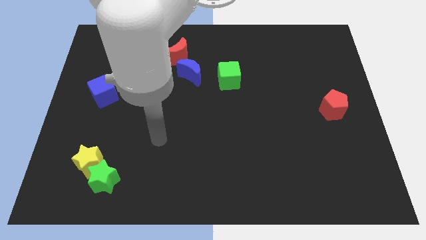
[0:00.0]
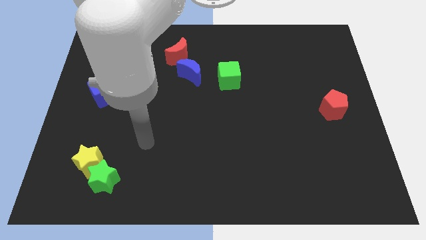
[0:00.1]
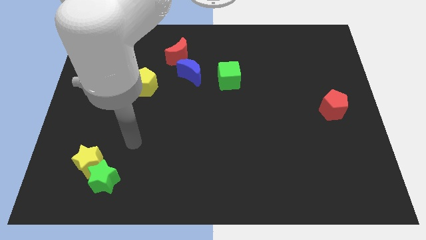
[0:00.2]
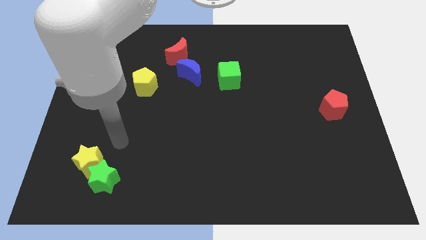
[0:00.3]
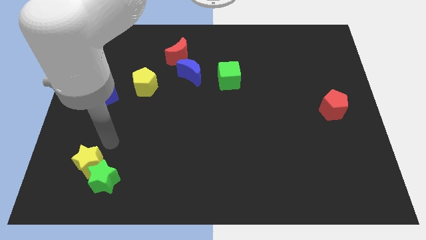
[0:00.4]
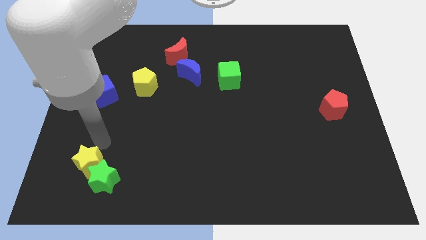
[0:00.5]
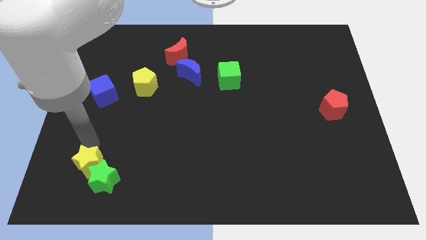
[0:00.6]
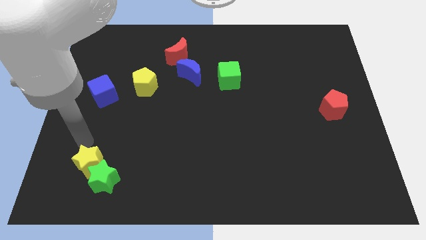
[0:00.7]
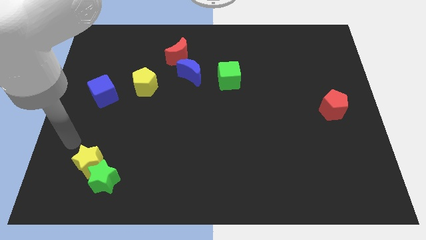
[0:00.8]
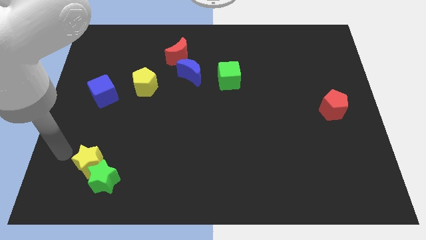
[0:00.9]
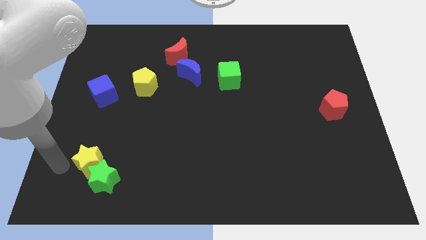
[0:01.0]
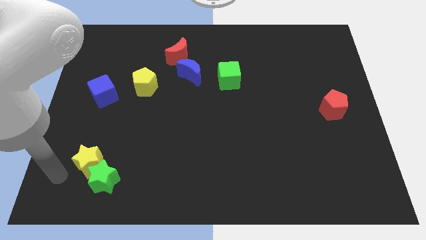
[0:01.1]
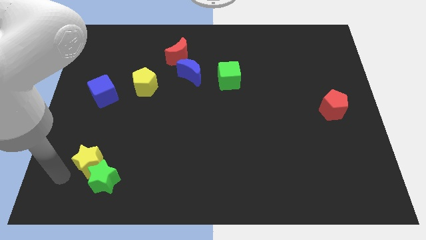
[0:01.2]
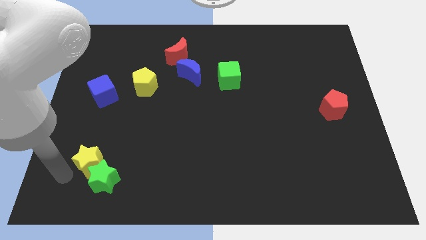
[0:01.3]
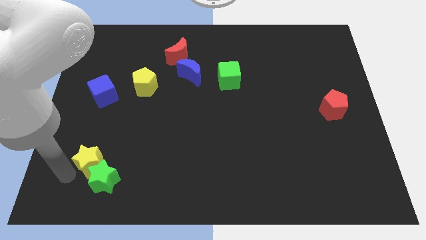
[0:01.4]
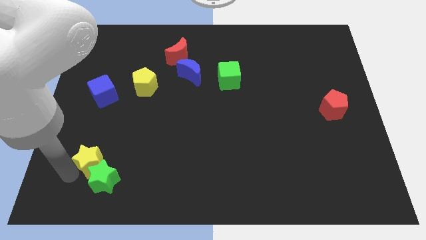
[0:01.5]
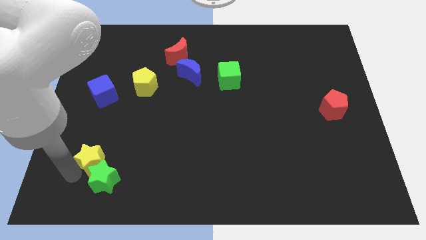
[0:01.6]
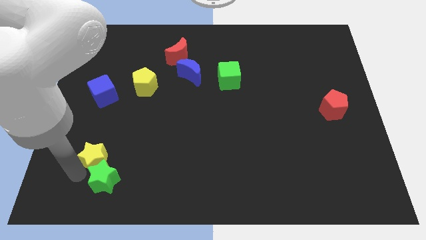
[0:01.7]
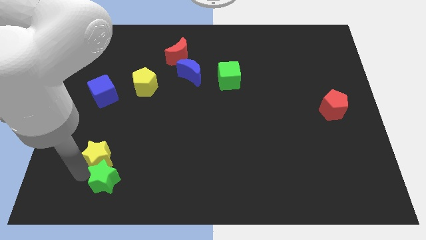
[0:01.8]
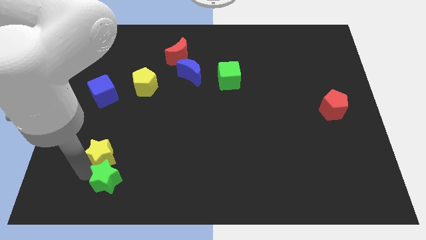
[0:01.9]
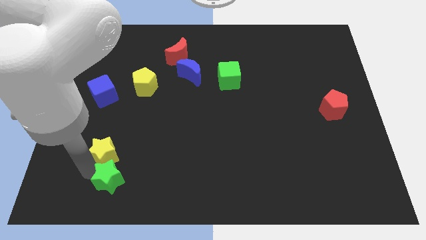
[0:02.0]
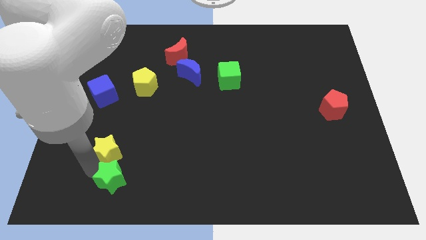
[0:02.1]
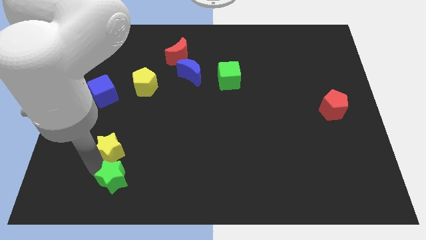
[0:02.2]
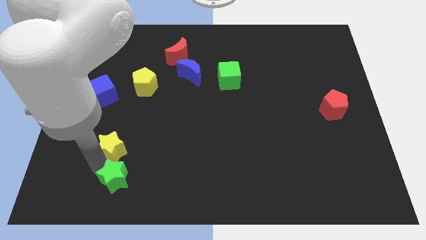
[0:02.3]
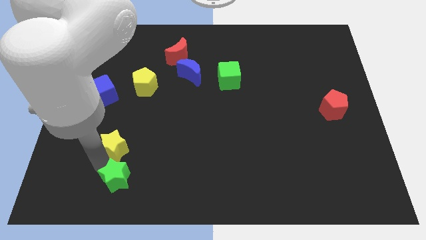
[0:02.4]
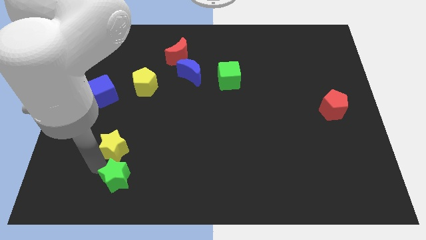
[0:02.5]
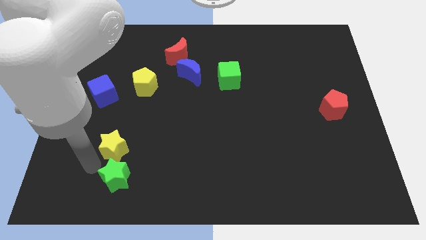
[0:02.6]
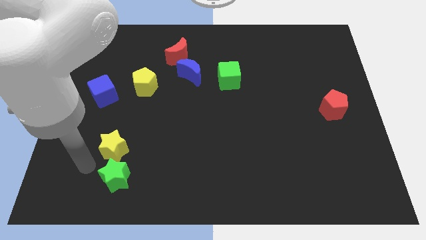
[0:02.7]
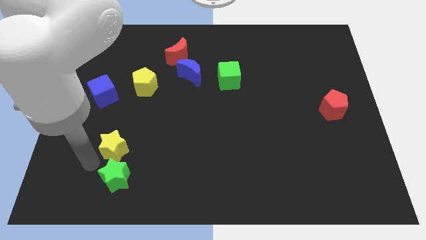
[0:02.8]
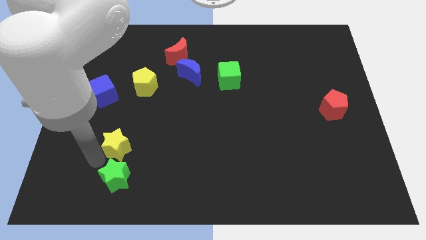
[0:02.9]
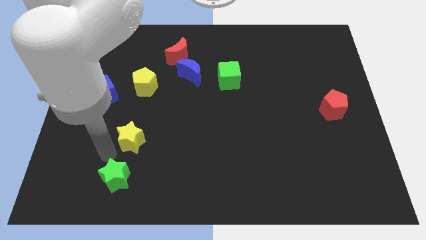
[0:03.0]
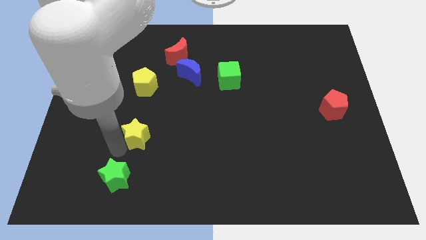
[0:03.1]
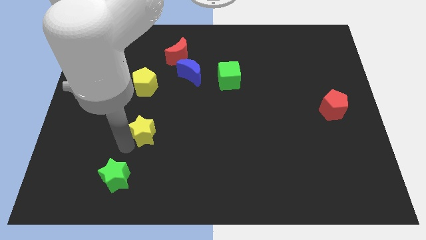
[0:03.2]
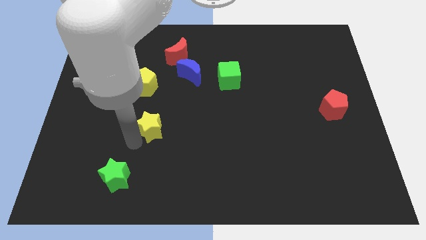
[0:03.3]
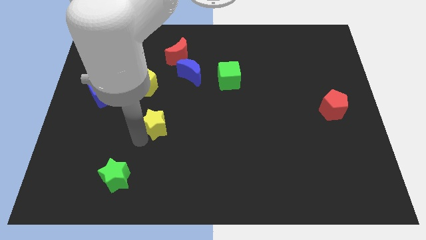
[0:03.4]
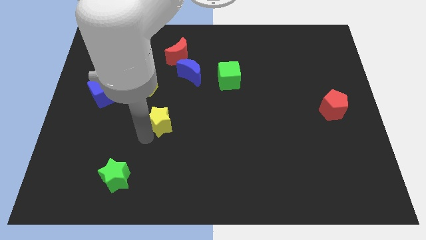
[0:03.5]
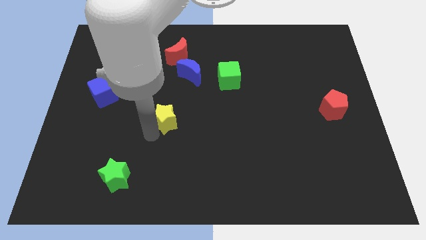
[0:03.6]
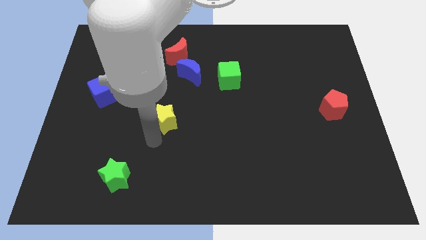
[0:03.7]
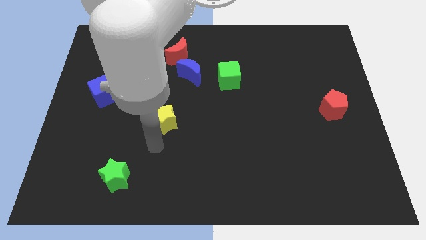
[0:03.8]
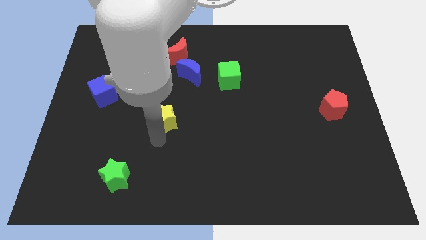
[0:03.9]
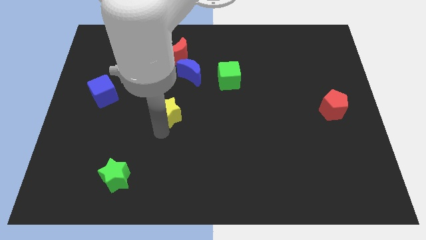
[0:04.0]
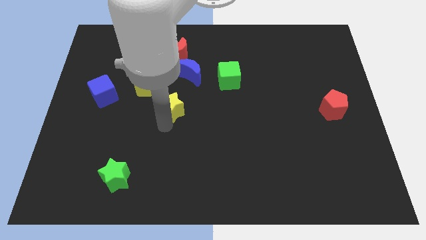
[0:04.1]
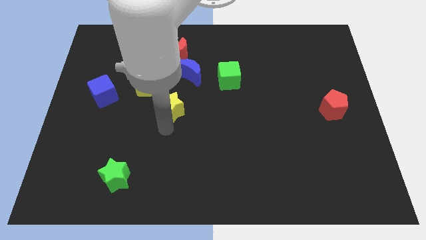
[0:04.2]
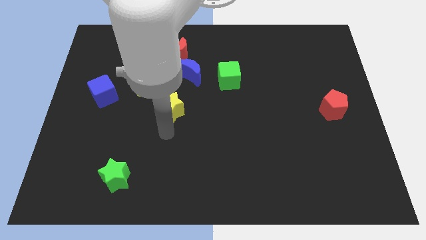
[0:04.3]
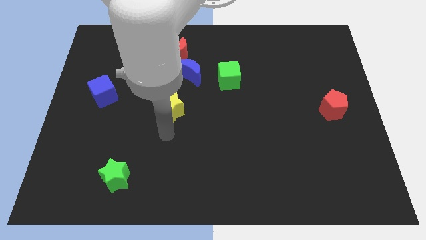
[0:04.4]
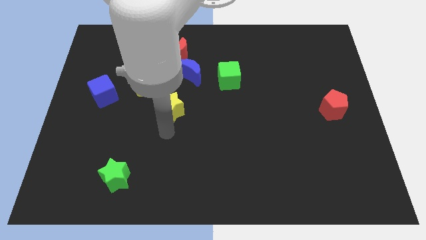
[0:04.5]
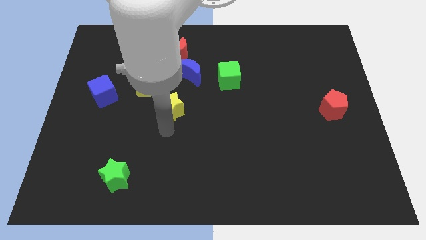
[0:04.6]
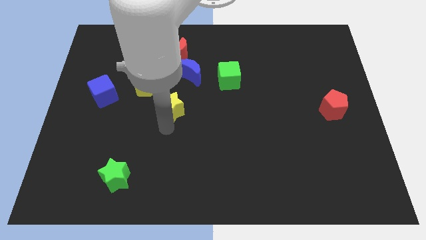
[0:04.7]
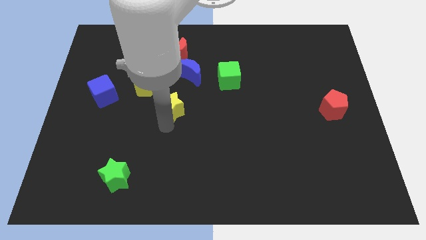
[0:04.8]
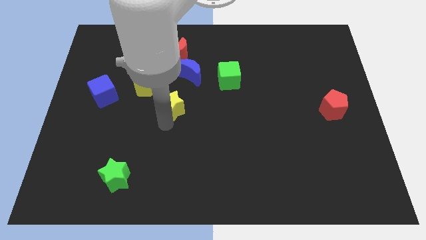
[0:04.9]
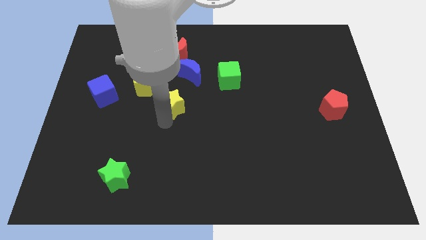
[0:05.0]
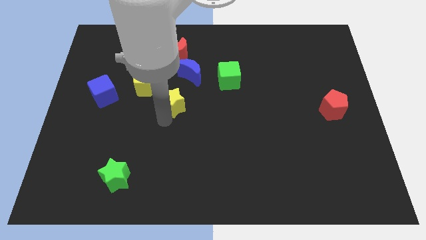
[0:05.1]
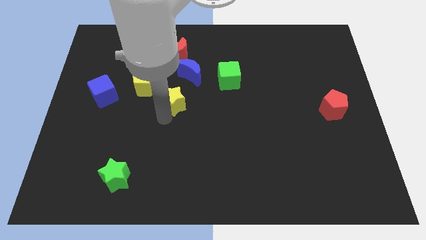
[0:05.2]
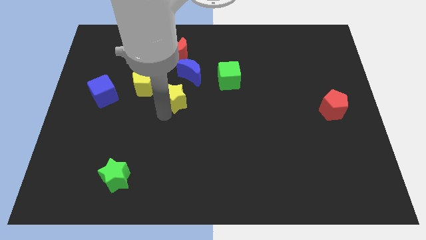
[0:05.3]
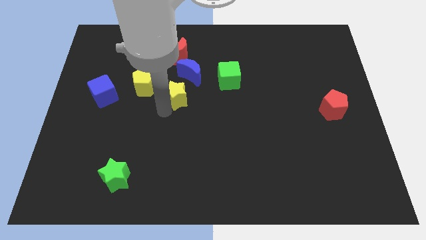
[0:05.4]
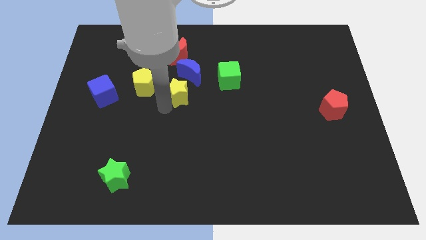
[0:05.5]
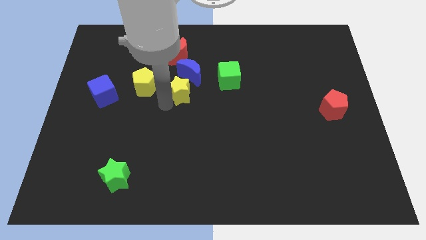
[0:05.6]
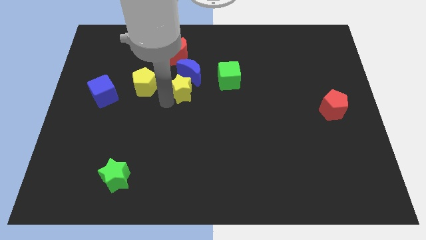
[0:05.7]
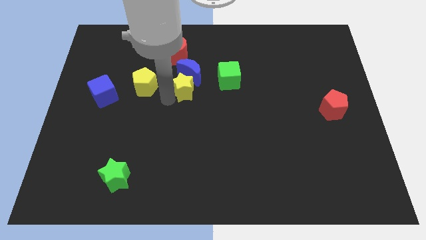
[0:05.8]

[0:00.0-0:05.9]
put the yellow star next to the blue moon

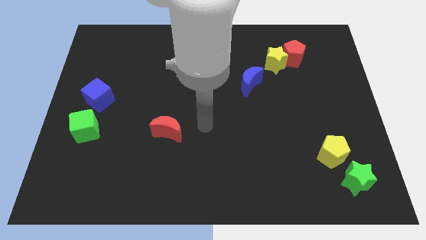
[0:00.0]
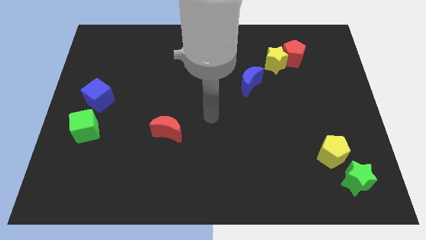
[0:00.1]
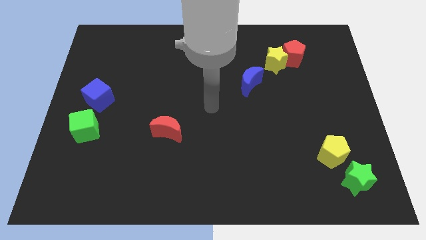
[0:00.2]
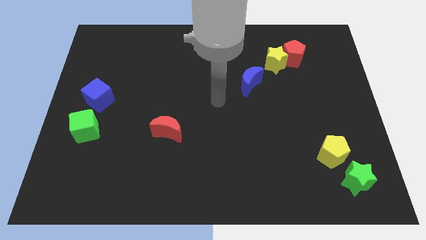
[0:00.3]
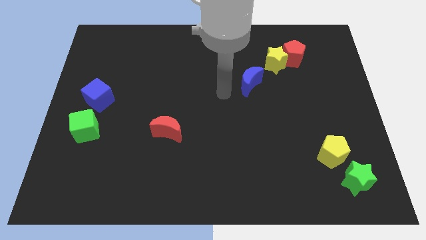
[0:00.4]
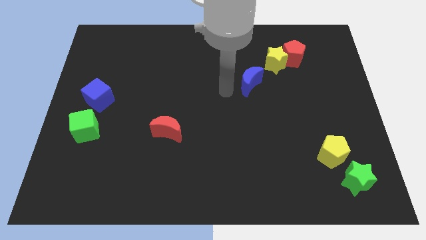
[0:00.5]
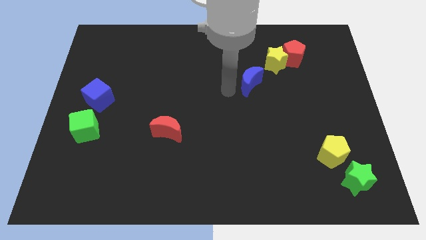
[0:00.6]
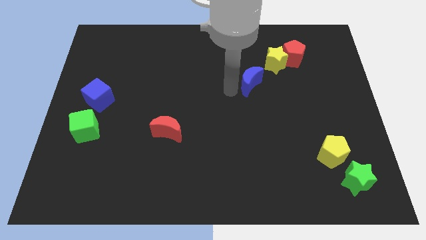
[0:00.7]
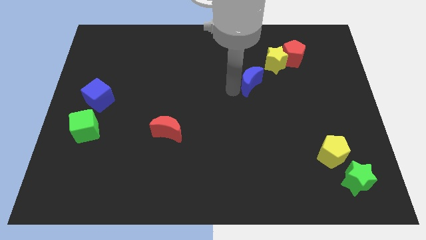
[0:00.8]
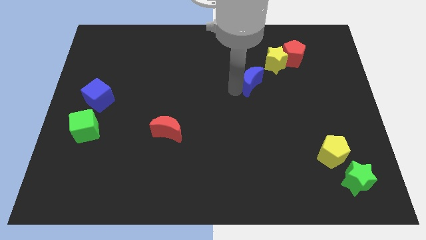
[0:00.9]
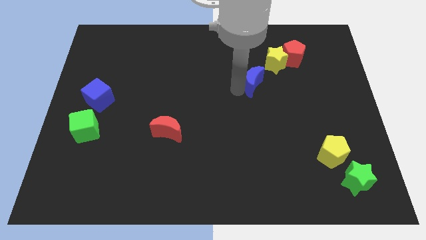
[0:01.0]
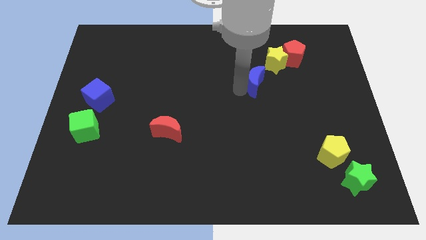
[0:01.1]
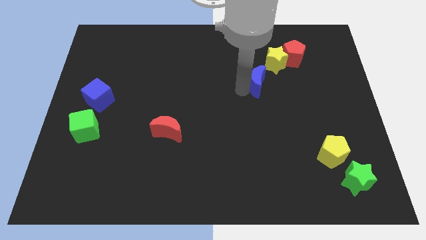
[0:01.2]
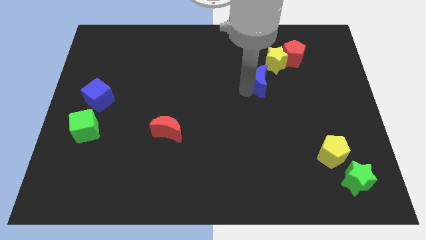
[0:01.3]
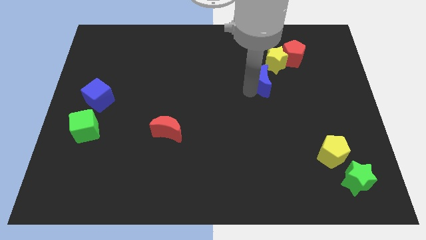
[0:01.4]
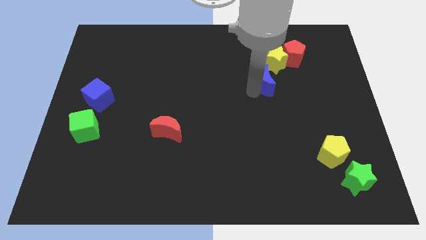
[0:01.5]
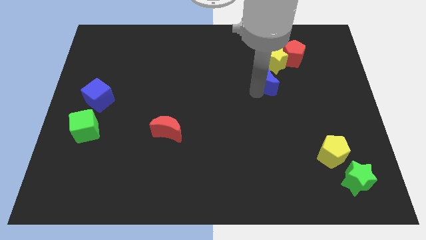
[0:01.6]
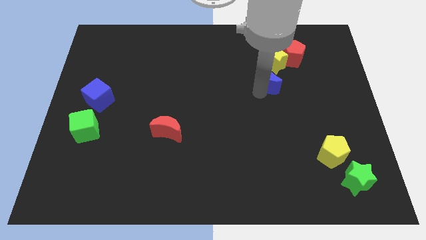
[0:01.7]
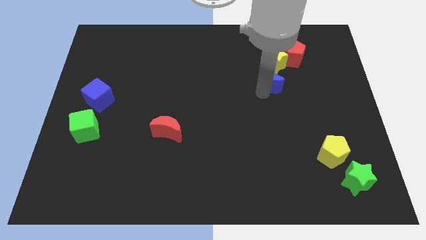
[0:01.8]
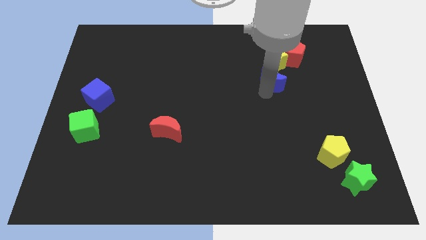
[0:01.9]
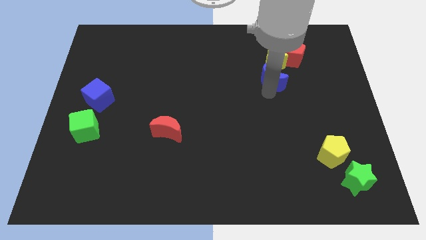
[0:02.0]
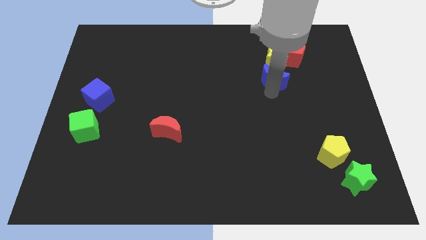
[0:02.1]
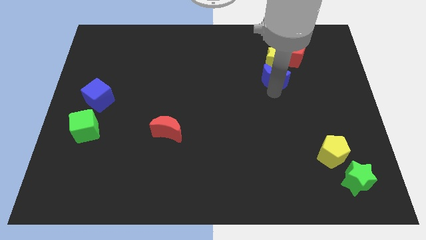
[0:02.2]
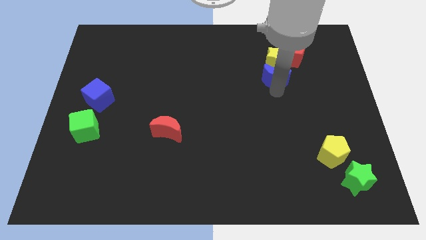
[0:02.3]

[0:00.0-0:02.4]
push the blue moon close to the yellow star
